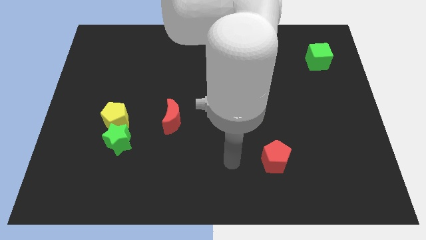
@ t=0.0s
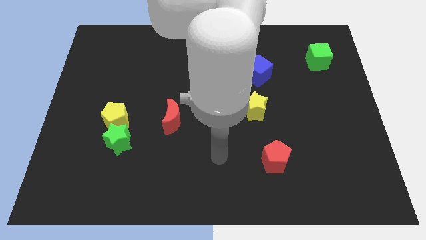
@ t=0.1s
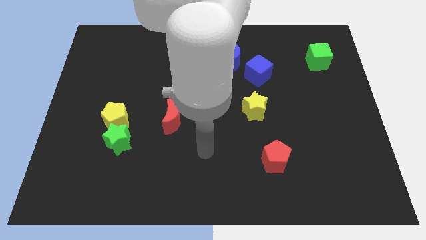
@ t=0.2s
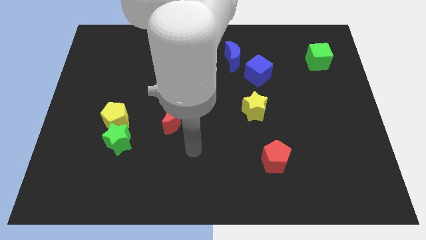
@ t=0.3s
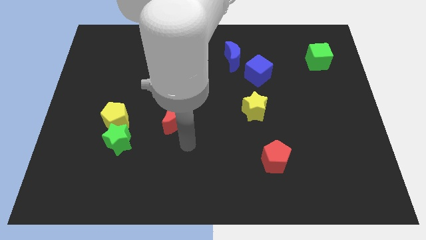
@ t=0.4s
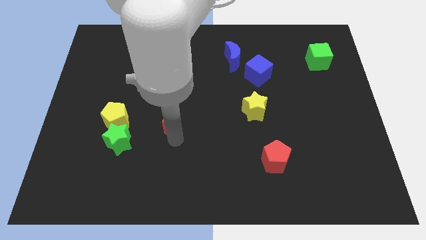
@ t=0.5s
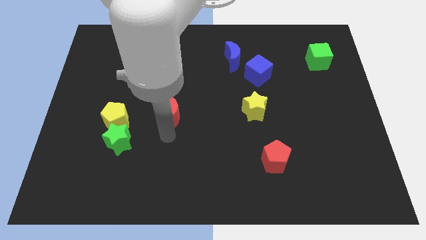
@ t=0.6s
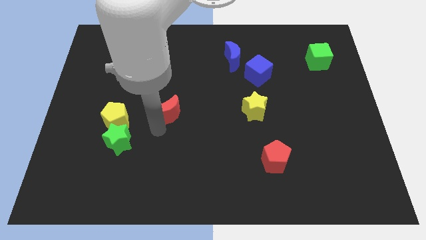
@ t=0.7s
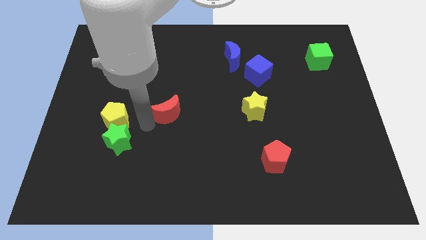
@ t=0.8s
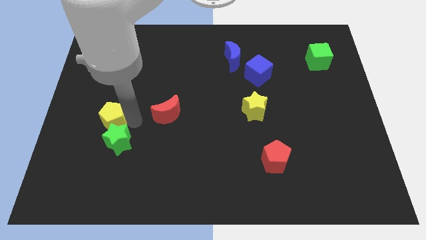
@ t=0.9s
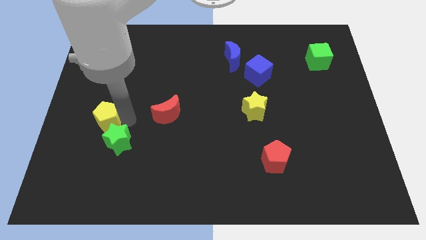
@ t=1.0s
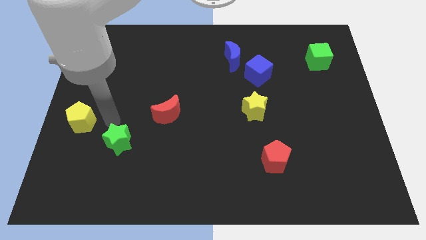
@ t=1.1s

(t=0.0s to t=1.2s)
separate the green star from the yellow pentagon

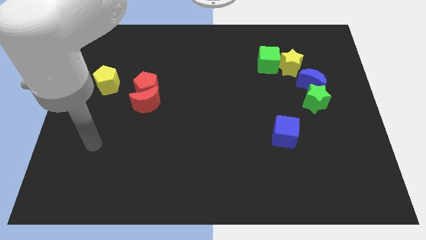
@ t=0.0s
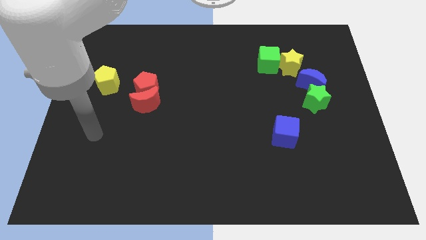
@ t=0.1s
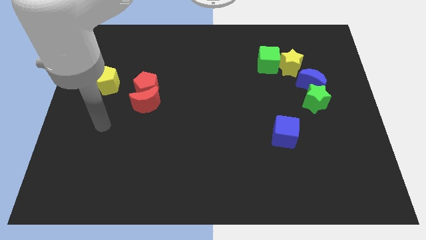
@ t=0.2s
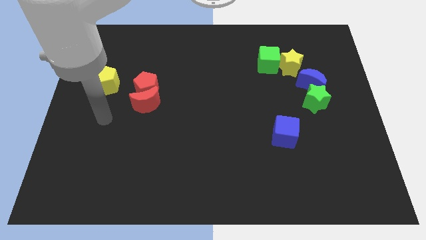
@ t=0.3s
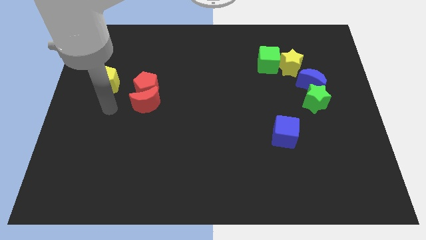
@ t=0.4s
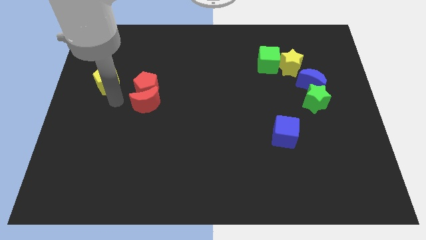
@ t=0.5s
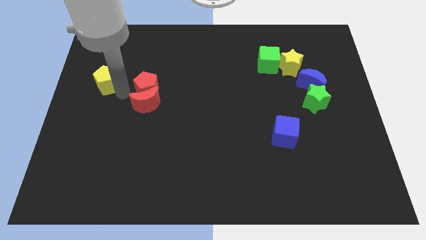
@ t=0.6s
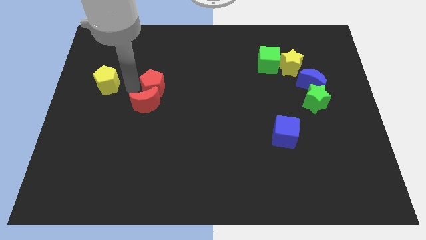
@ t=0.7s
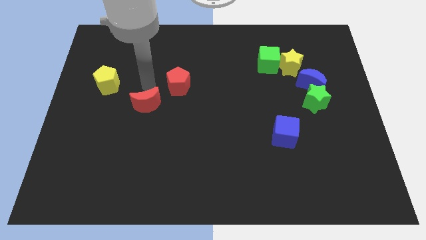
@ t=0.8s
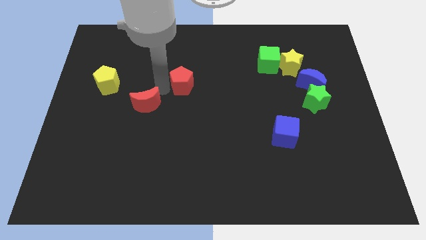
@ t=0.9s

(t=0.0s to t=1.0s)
move the red moon away from the red pentagon

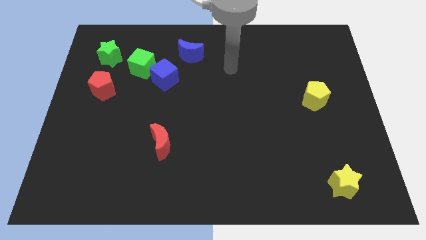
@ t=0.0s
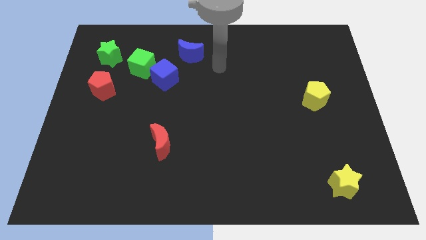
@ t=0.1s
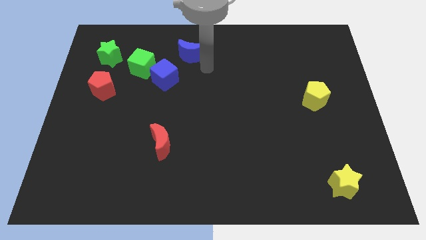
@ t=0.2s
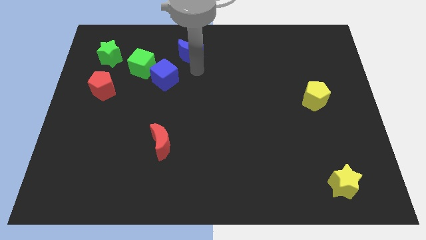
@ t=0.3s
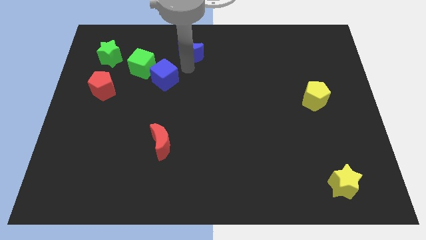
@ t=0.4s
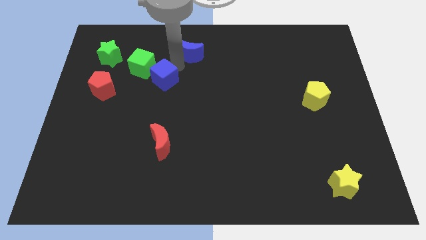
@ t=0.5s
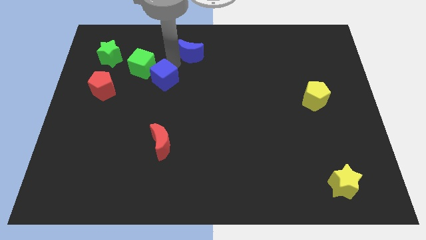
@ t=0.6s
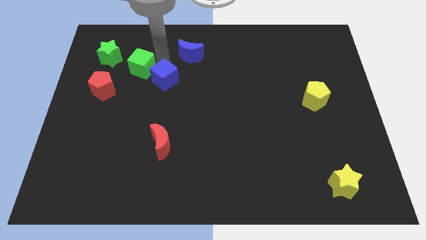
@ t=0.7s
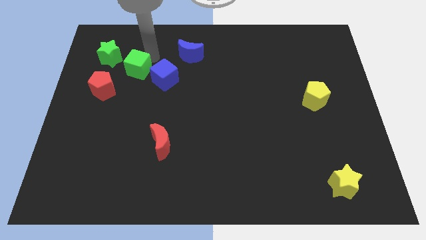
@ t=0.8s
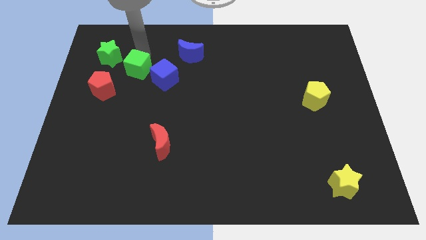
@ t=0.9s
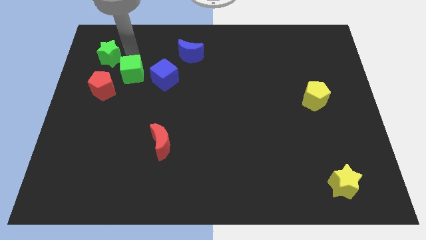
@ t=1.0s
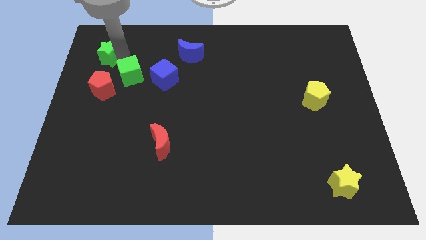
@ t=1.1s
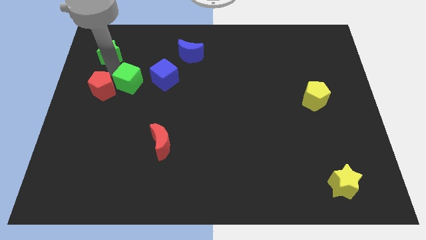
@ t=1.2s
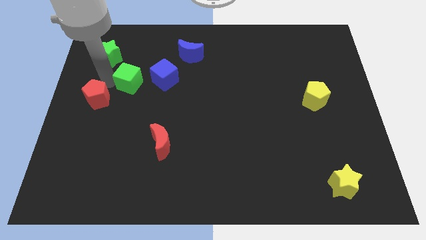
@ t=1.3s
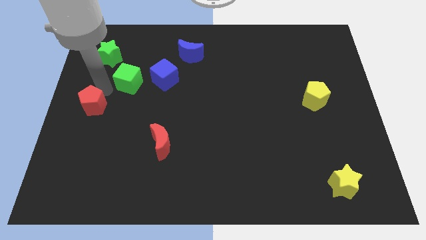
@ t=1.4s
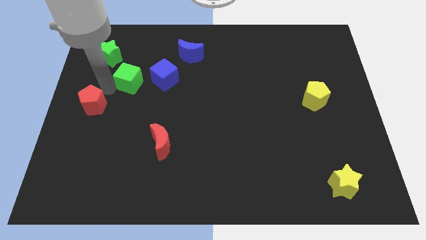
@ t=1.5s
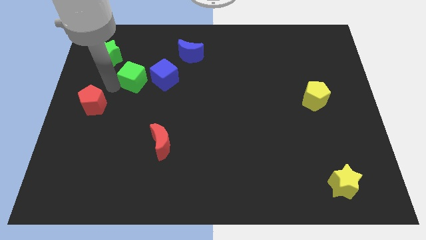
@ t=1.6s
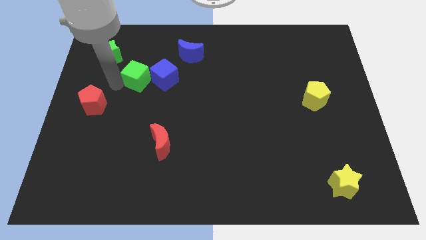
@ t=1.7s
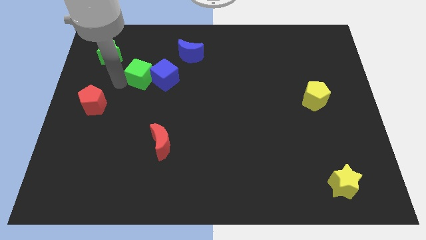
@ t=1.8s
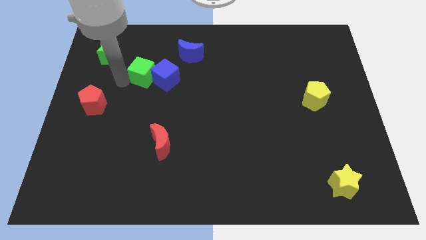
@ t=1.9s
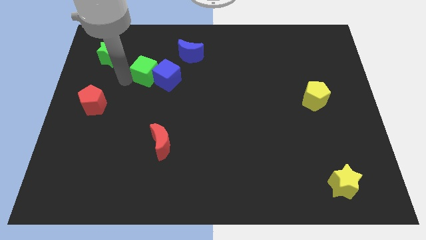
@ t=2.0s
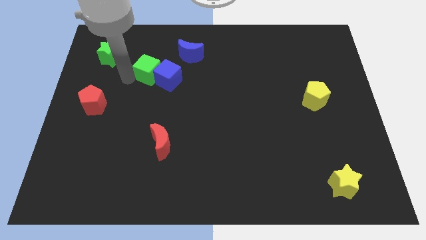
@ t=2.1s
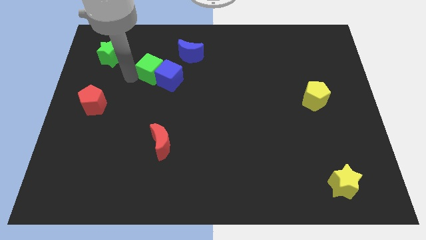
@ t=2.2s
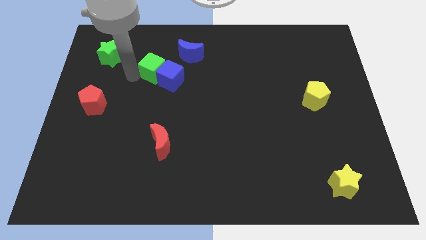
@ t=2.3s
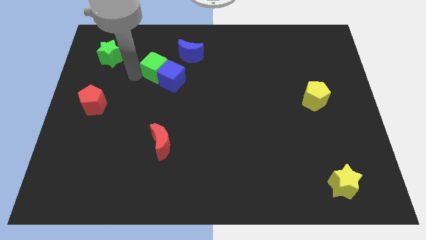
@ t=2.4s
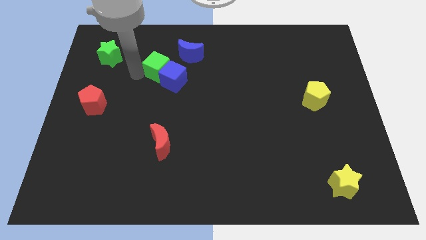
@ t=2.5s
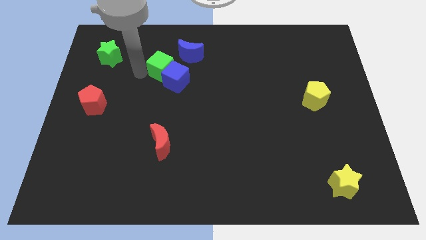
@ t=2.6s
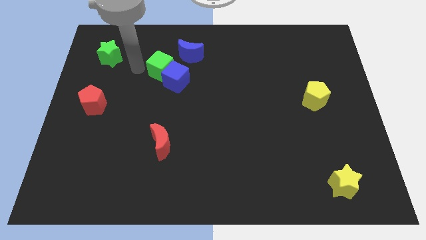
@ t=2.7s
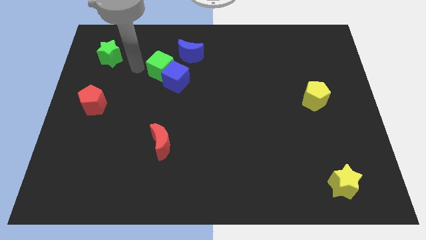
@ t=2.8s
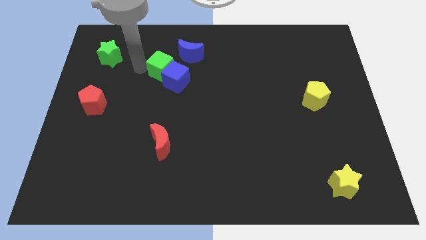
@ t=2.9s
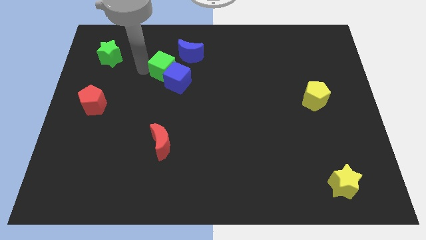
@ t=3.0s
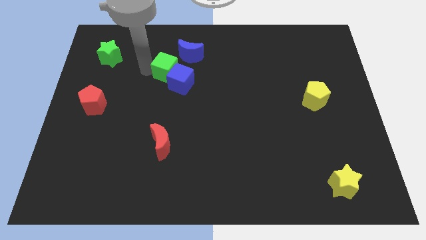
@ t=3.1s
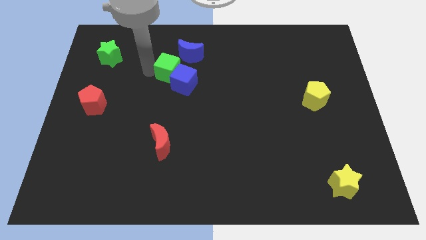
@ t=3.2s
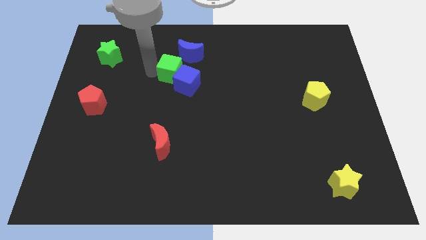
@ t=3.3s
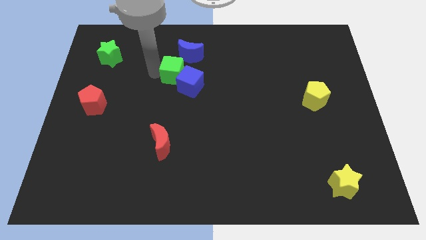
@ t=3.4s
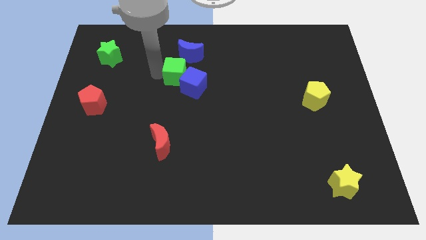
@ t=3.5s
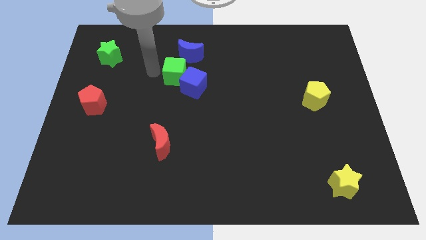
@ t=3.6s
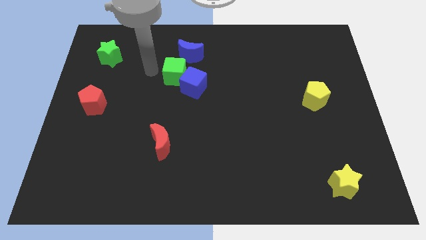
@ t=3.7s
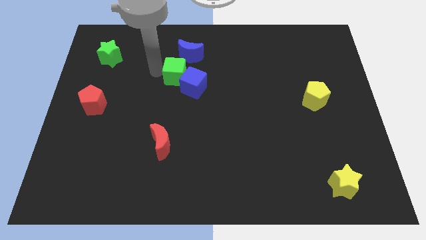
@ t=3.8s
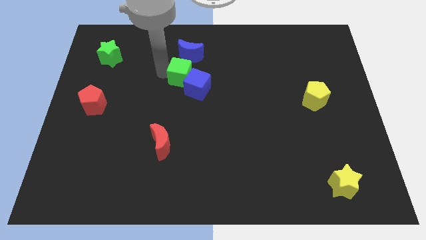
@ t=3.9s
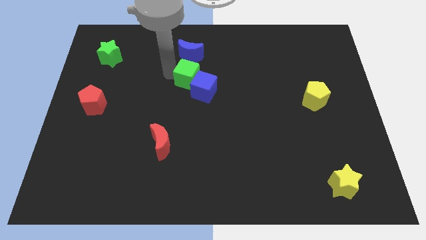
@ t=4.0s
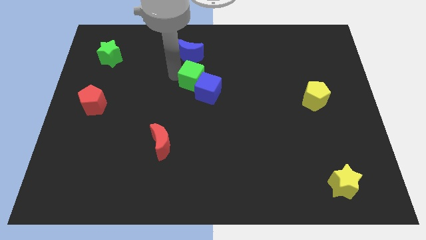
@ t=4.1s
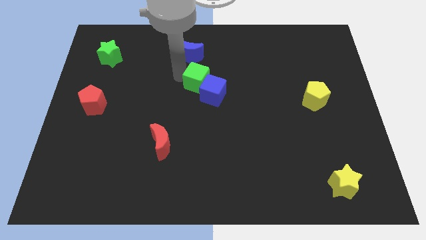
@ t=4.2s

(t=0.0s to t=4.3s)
move the green cube away from the blue cube and green star

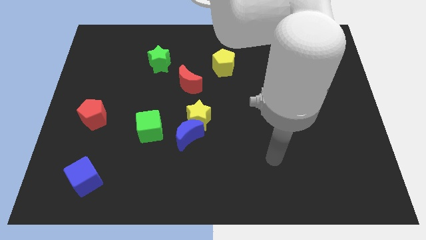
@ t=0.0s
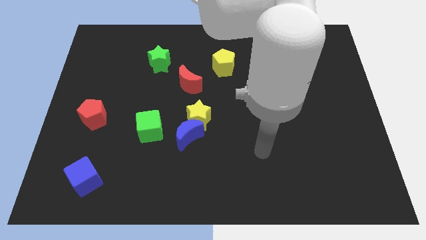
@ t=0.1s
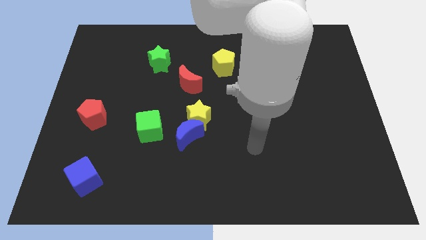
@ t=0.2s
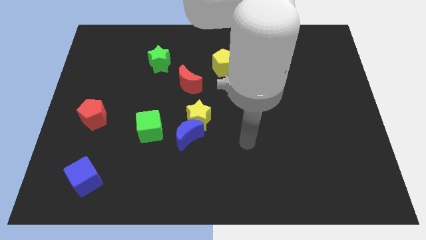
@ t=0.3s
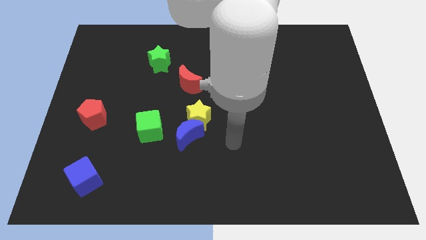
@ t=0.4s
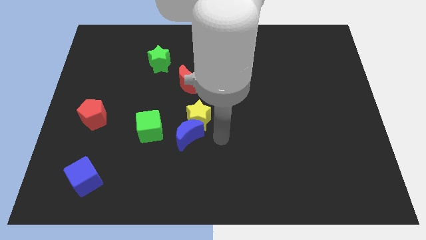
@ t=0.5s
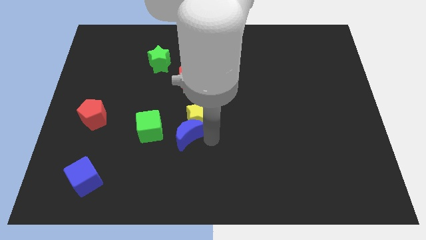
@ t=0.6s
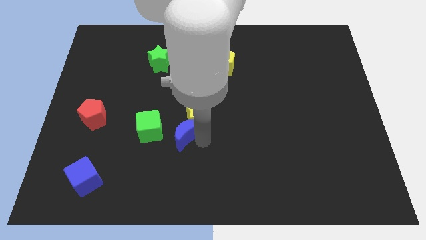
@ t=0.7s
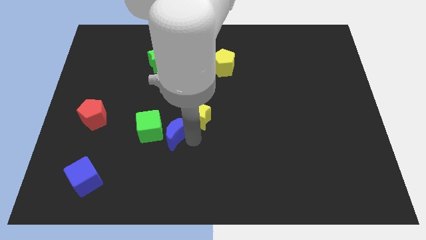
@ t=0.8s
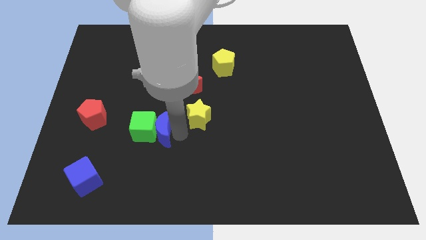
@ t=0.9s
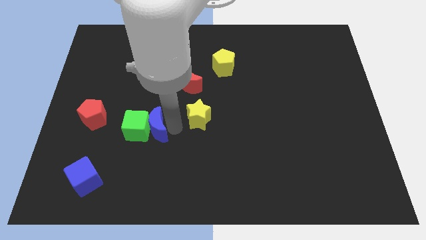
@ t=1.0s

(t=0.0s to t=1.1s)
move the yellow star away from the blue moon

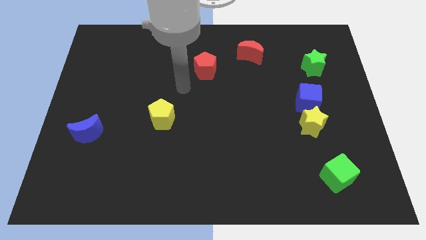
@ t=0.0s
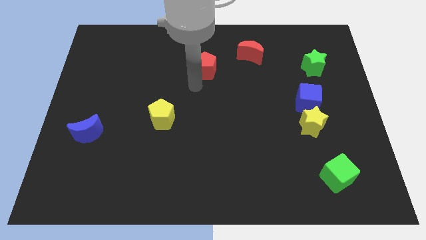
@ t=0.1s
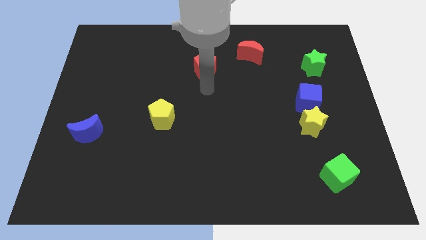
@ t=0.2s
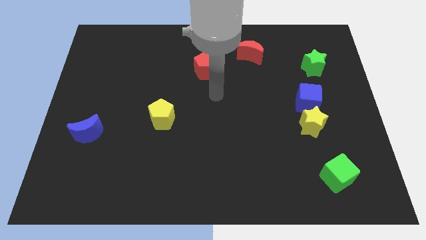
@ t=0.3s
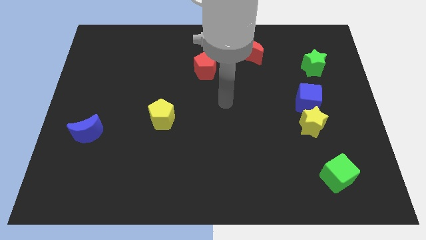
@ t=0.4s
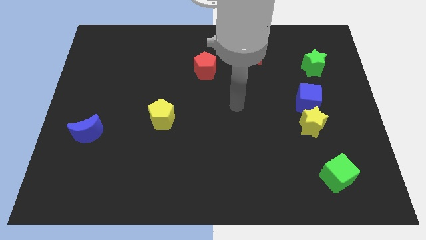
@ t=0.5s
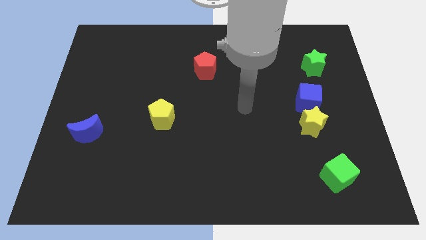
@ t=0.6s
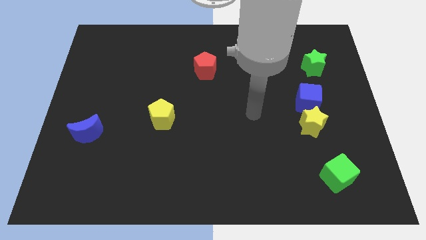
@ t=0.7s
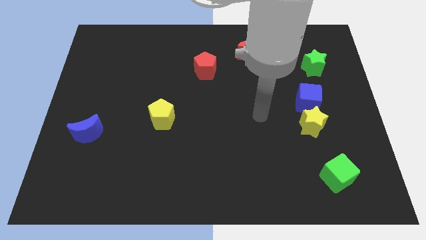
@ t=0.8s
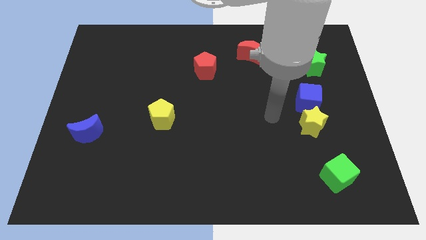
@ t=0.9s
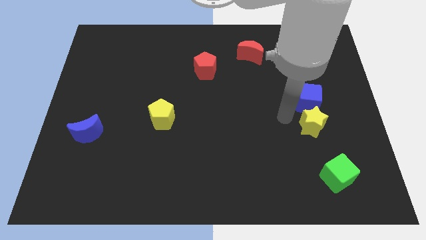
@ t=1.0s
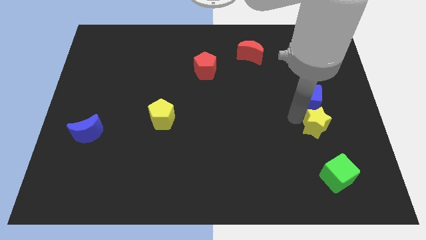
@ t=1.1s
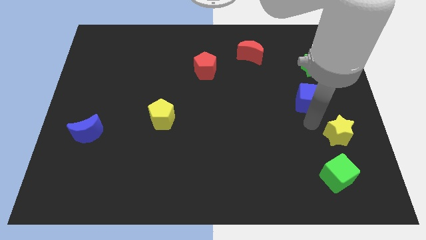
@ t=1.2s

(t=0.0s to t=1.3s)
separate the blue cube from the yellow star

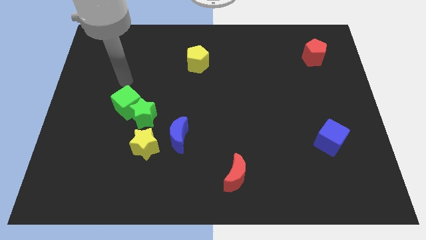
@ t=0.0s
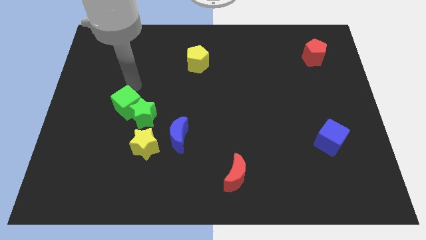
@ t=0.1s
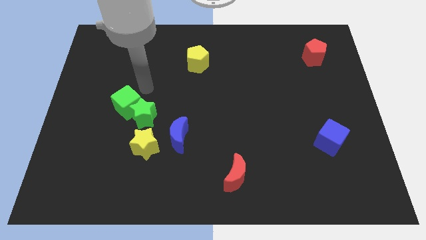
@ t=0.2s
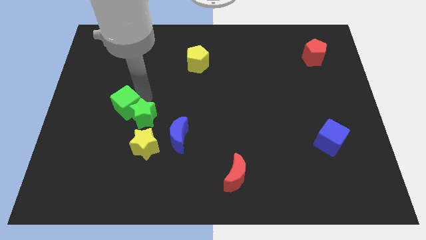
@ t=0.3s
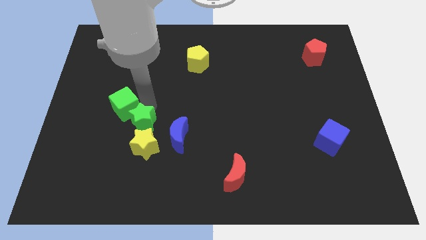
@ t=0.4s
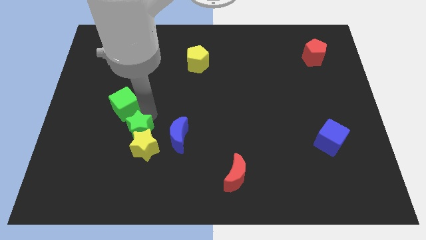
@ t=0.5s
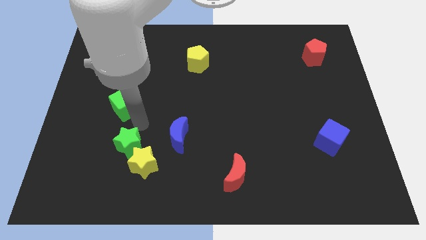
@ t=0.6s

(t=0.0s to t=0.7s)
pull the green cube apart from the green star
